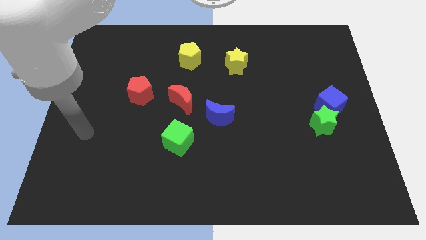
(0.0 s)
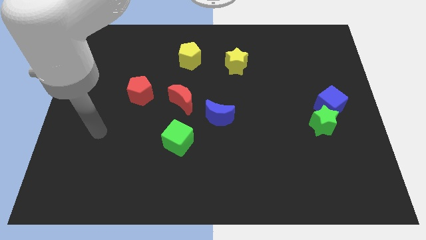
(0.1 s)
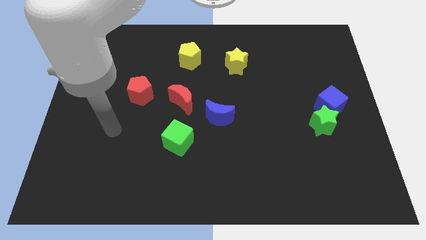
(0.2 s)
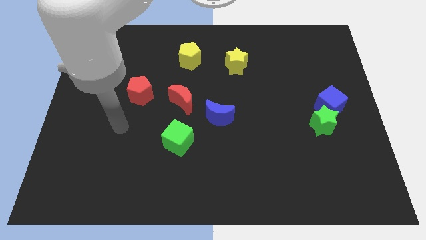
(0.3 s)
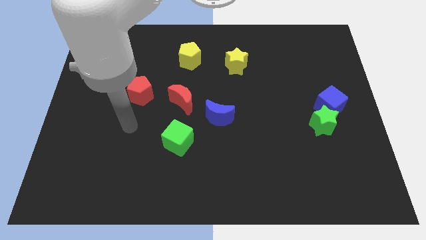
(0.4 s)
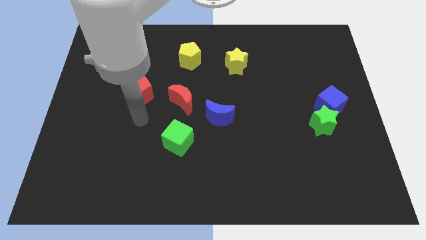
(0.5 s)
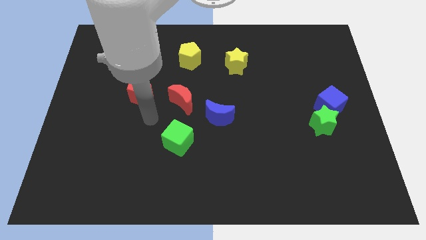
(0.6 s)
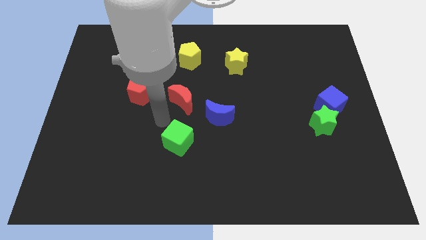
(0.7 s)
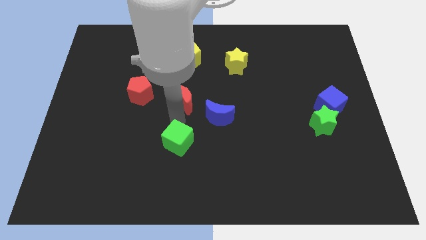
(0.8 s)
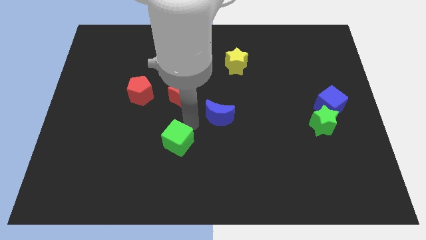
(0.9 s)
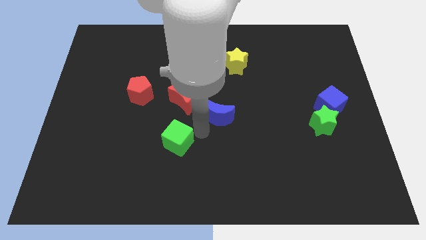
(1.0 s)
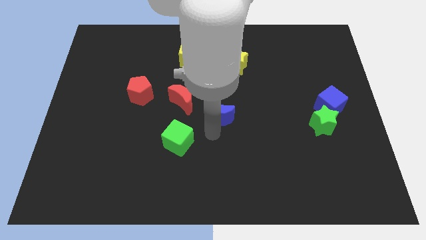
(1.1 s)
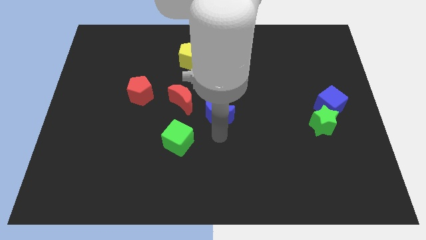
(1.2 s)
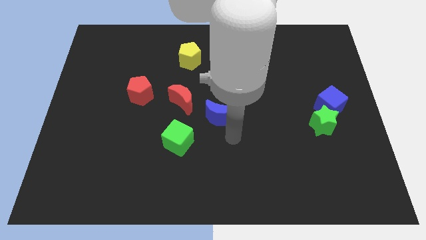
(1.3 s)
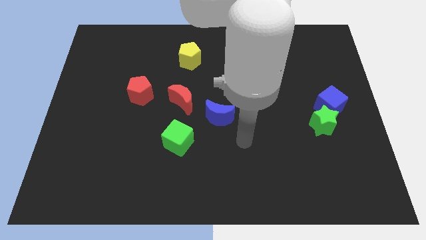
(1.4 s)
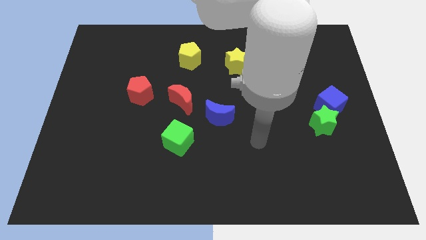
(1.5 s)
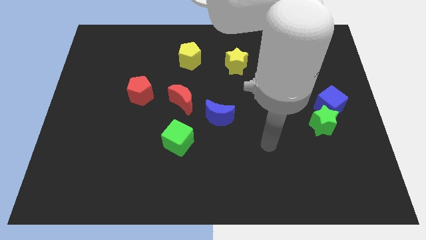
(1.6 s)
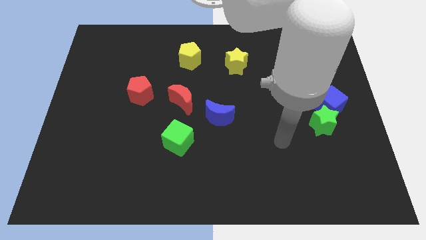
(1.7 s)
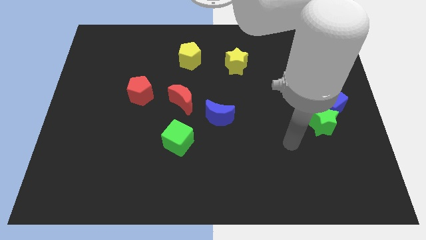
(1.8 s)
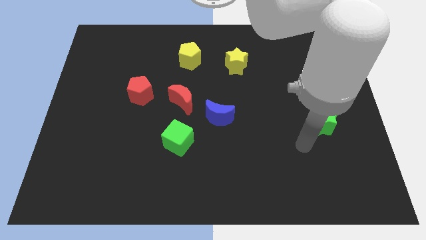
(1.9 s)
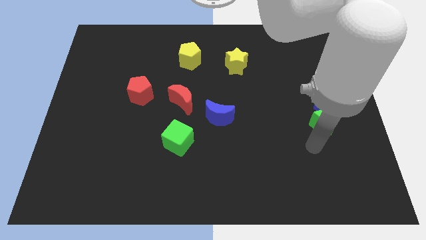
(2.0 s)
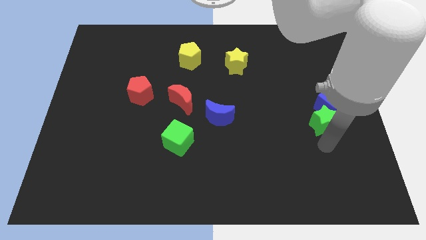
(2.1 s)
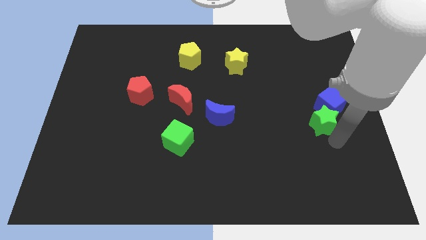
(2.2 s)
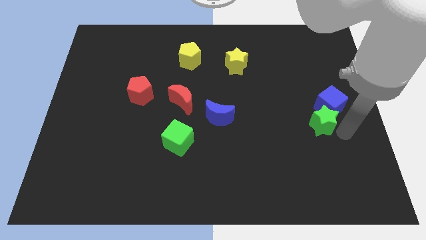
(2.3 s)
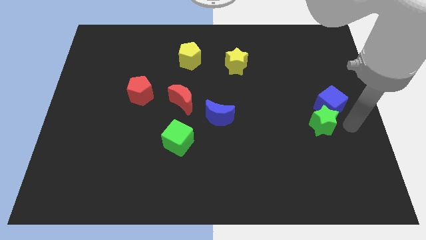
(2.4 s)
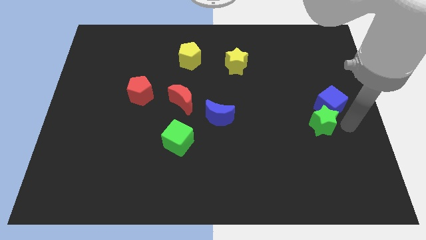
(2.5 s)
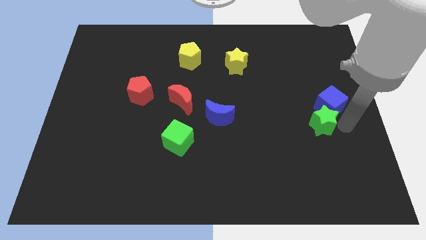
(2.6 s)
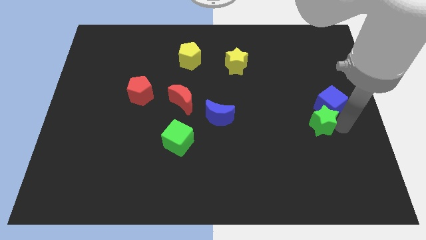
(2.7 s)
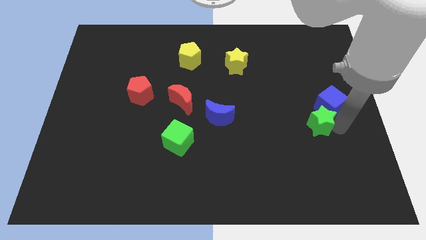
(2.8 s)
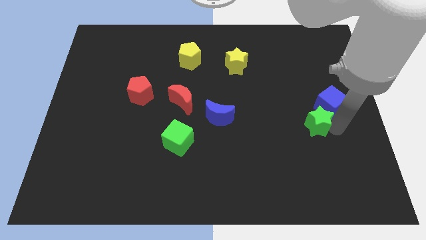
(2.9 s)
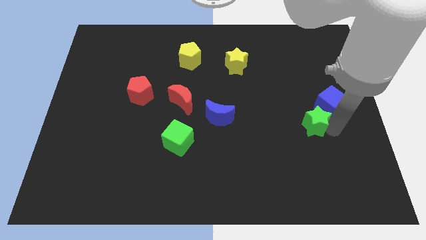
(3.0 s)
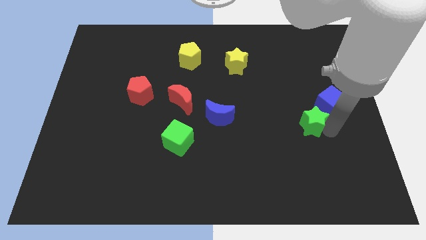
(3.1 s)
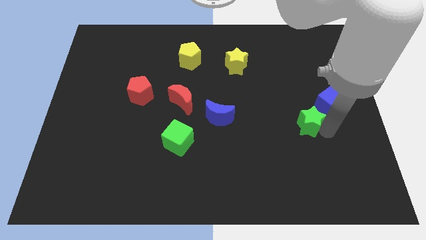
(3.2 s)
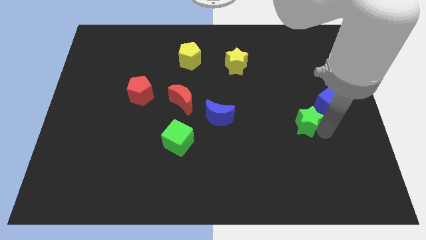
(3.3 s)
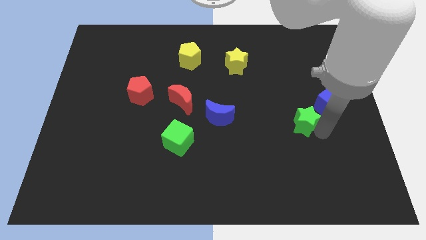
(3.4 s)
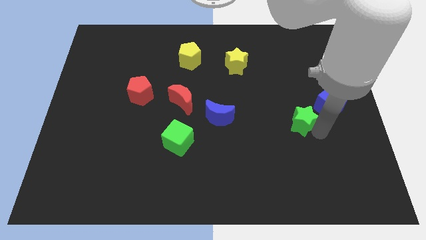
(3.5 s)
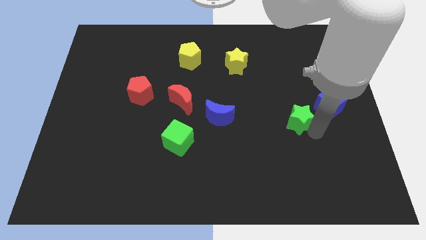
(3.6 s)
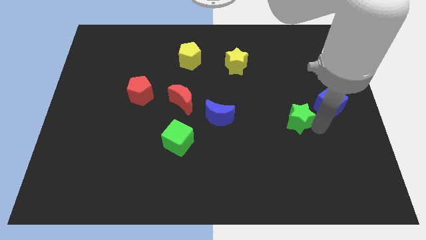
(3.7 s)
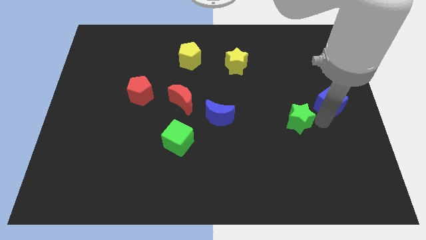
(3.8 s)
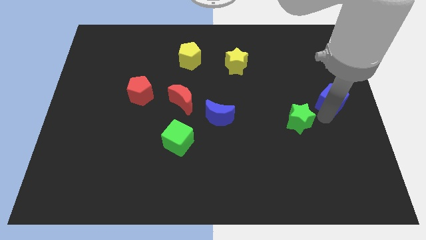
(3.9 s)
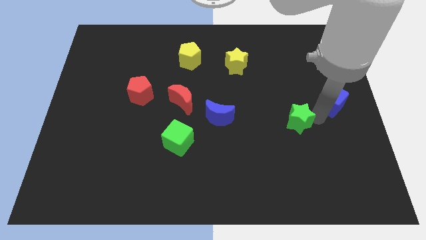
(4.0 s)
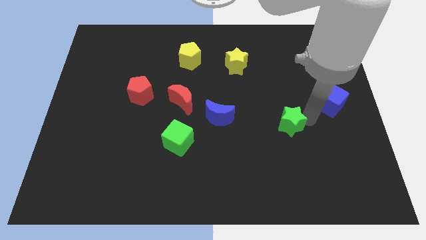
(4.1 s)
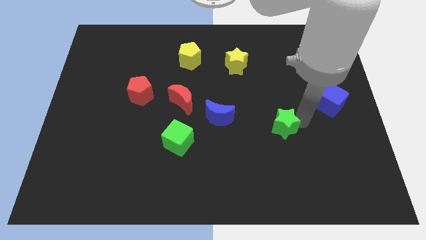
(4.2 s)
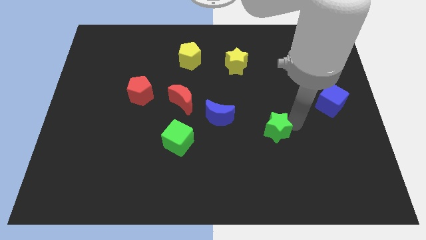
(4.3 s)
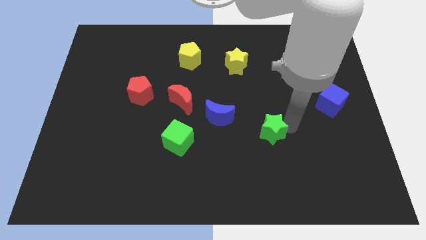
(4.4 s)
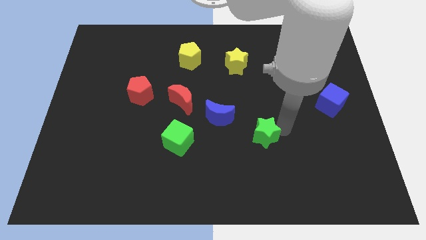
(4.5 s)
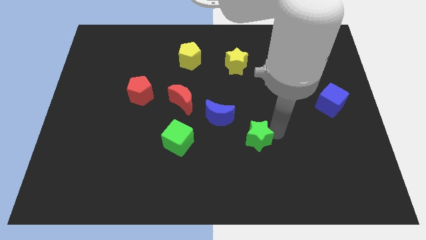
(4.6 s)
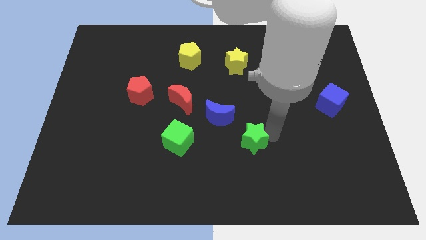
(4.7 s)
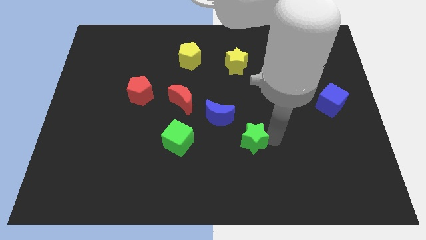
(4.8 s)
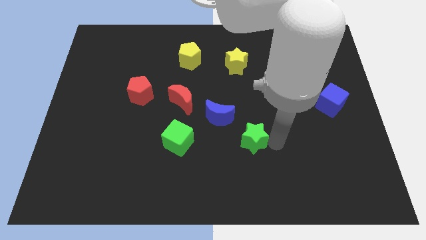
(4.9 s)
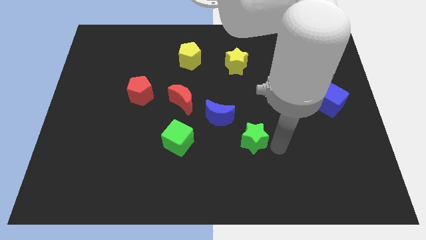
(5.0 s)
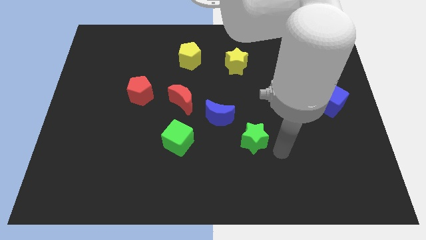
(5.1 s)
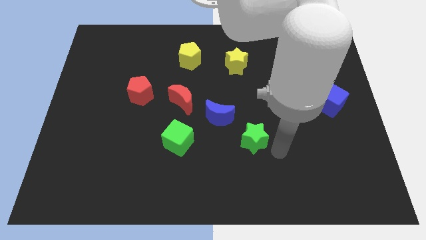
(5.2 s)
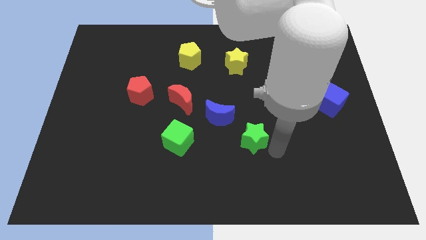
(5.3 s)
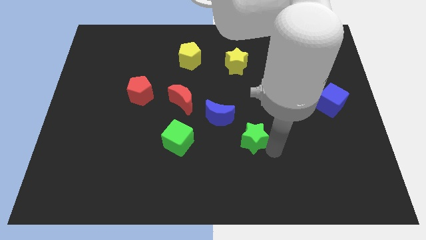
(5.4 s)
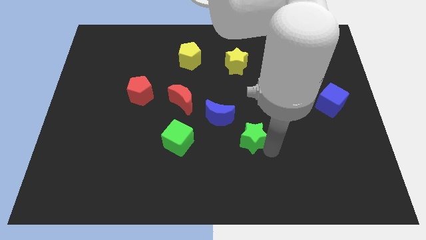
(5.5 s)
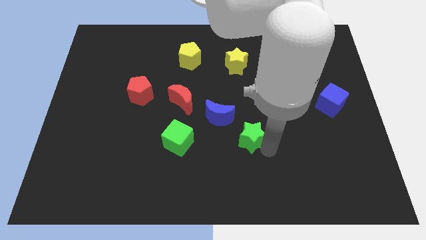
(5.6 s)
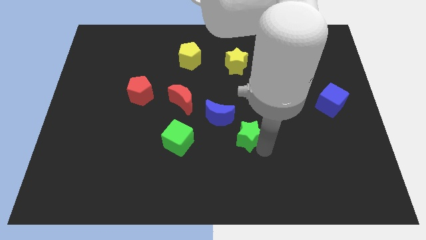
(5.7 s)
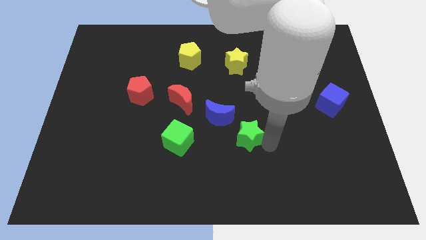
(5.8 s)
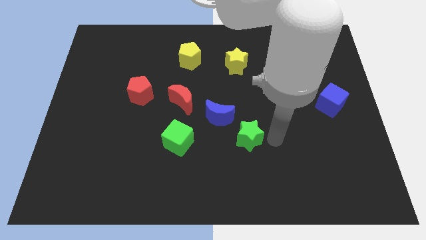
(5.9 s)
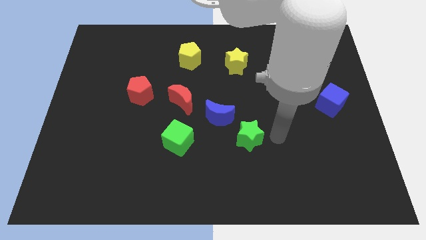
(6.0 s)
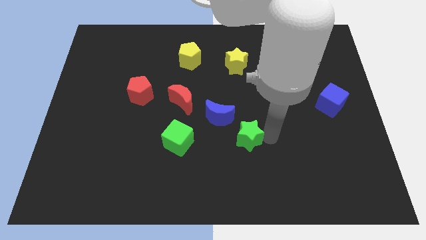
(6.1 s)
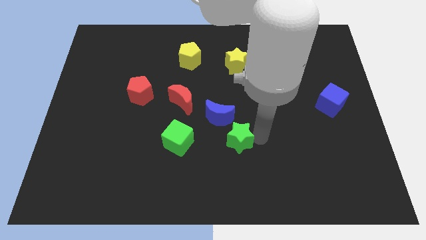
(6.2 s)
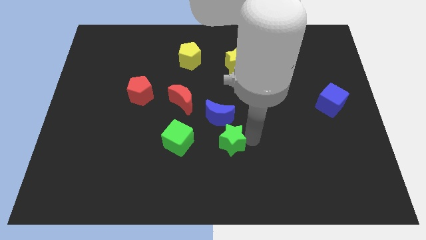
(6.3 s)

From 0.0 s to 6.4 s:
move the green star to the left

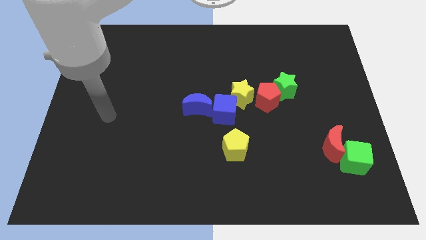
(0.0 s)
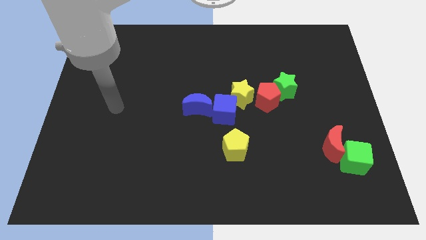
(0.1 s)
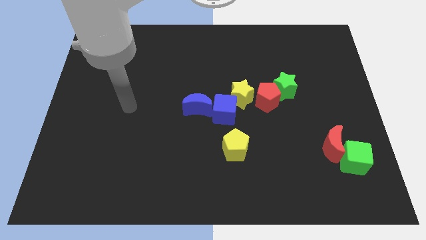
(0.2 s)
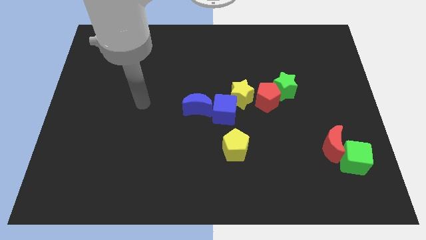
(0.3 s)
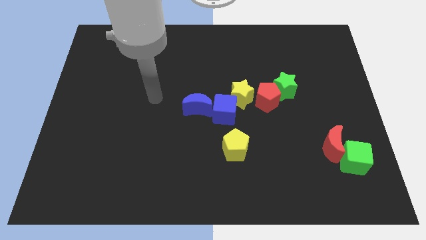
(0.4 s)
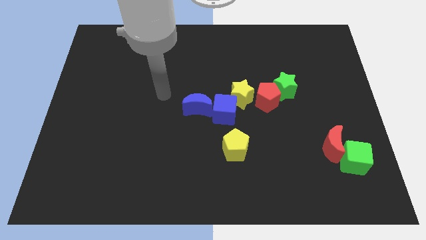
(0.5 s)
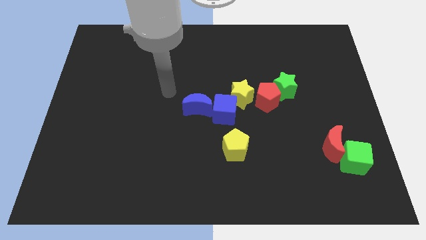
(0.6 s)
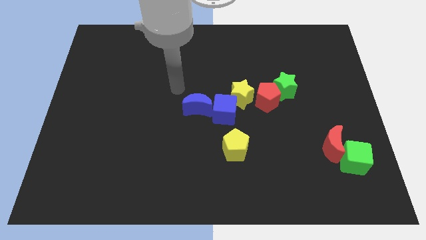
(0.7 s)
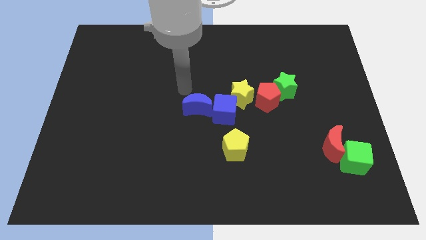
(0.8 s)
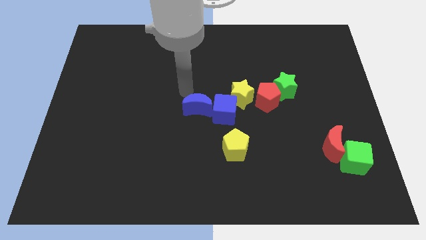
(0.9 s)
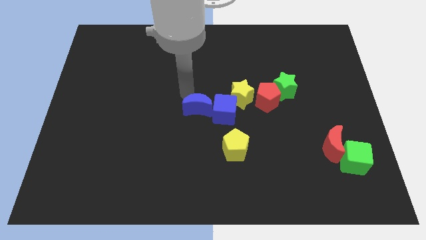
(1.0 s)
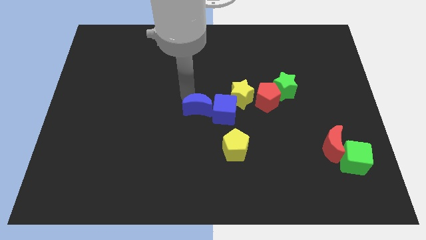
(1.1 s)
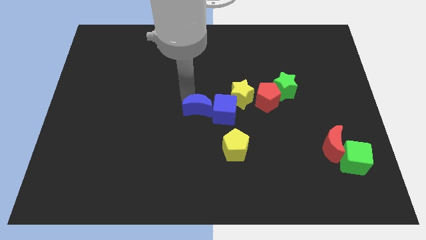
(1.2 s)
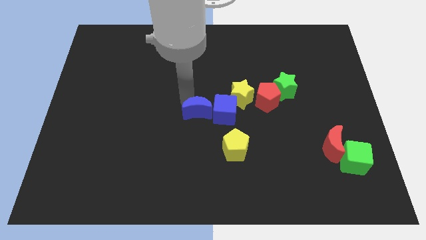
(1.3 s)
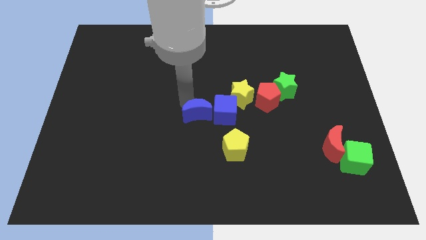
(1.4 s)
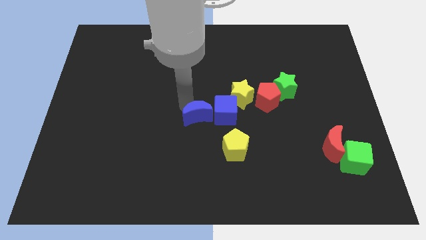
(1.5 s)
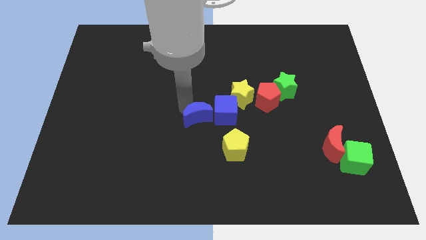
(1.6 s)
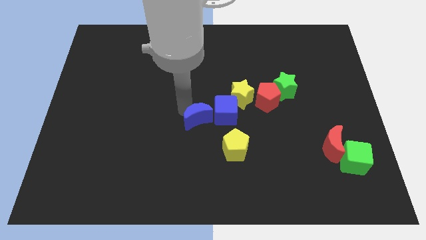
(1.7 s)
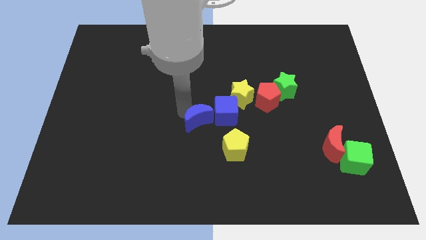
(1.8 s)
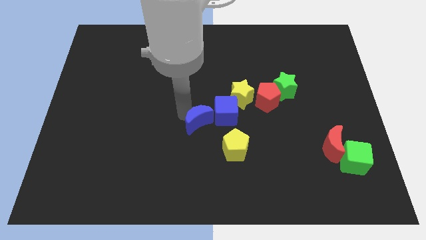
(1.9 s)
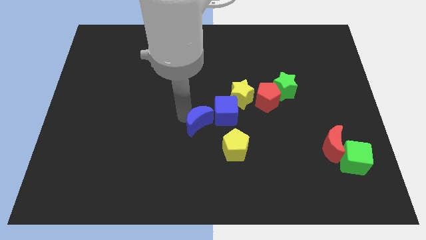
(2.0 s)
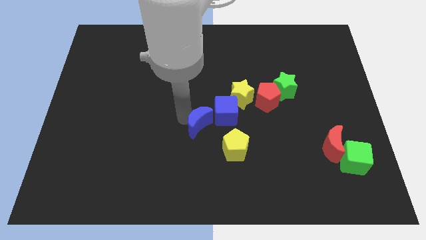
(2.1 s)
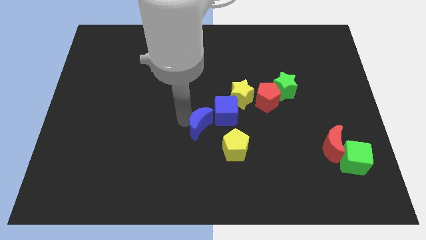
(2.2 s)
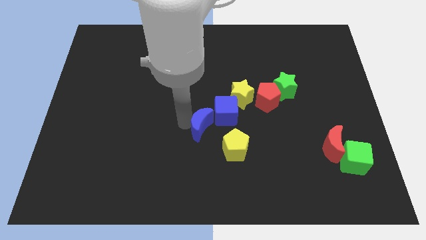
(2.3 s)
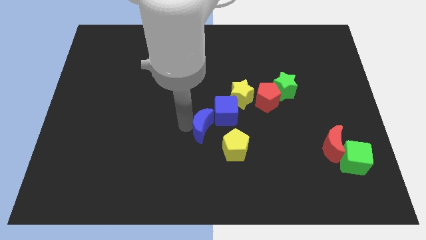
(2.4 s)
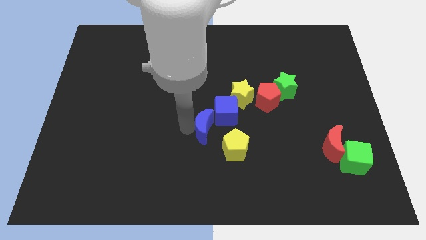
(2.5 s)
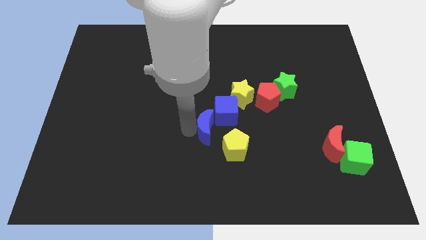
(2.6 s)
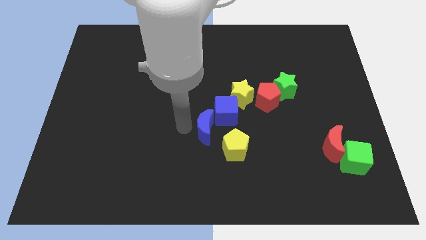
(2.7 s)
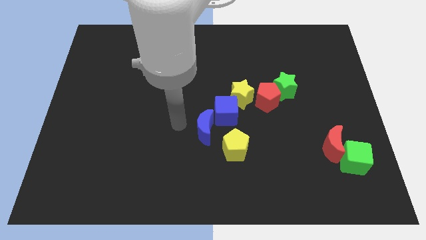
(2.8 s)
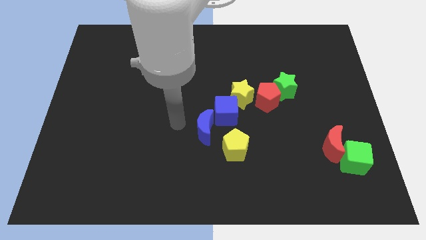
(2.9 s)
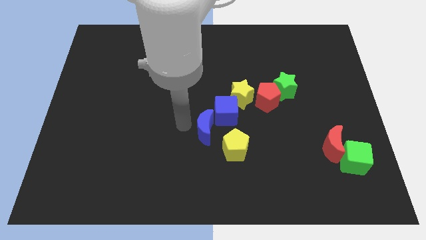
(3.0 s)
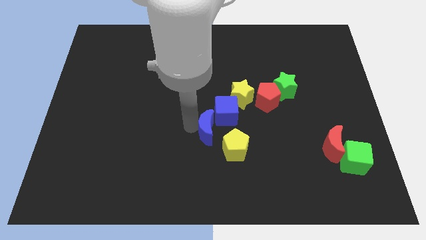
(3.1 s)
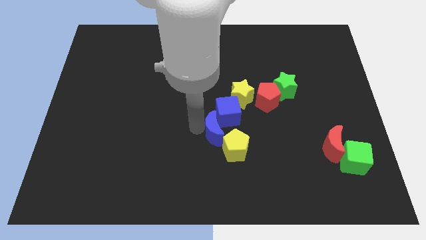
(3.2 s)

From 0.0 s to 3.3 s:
slide the blue moon slightly down and right diagonally
